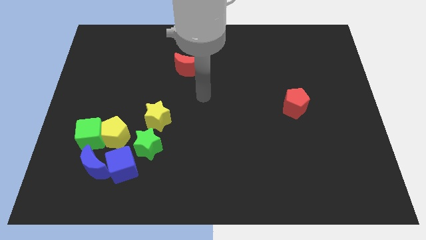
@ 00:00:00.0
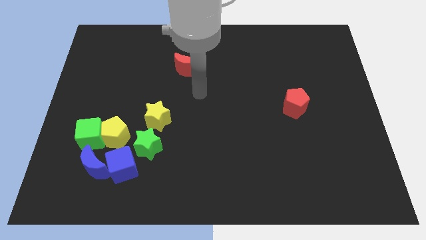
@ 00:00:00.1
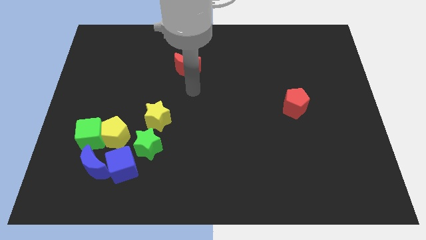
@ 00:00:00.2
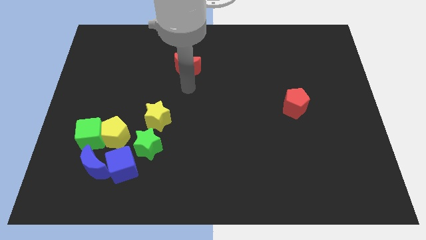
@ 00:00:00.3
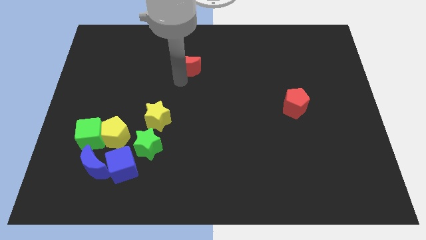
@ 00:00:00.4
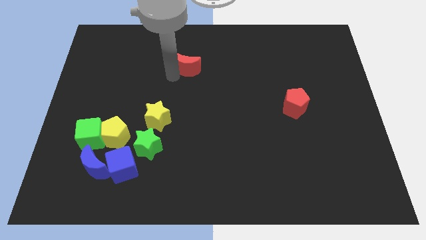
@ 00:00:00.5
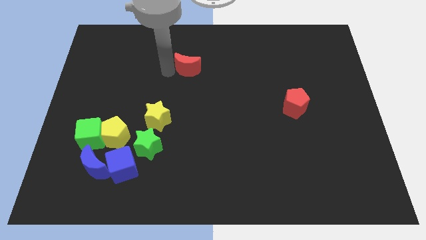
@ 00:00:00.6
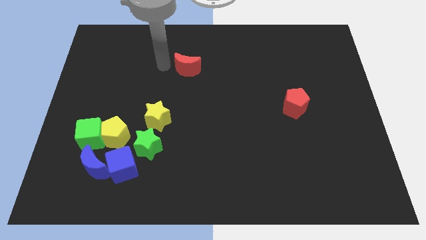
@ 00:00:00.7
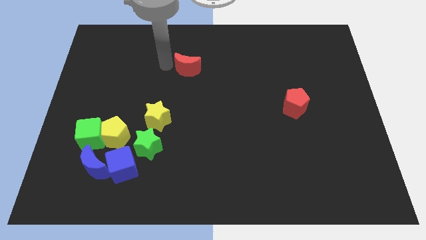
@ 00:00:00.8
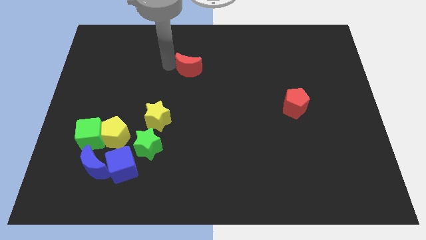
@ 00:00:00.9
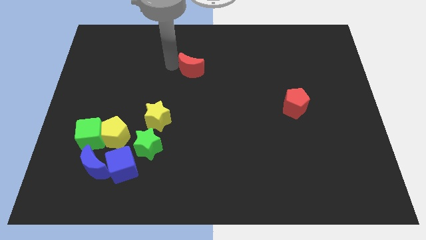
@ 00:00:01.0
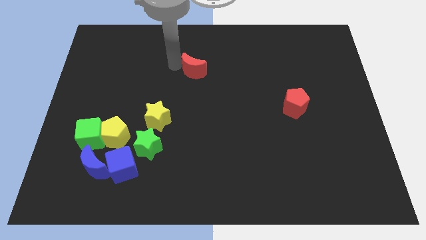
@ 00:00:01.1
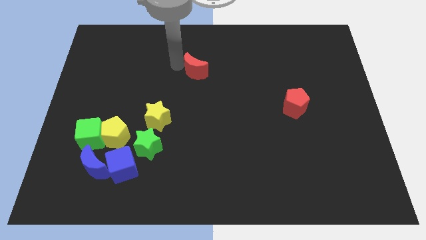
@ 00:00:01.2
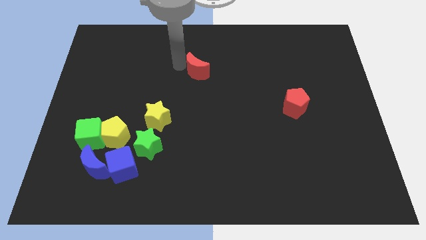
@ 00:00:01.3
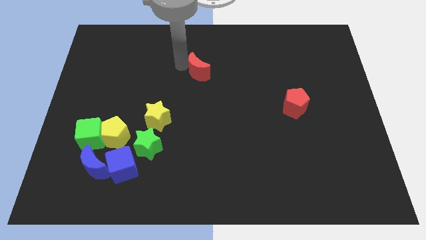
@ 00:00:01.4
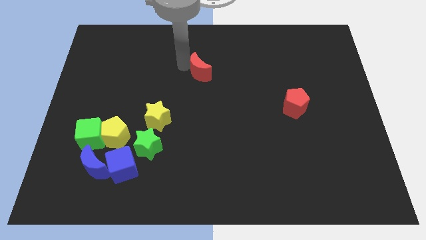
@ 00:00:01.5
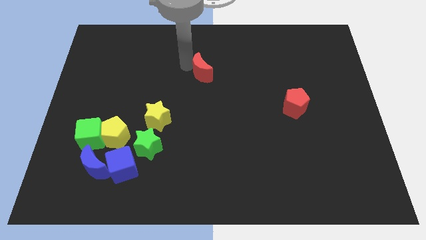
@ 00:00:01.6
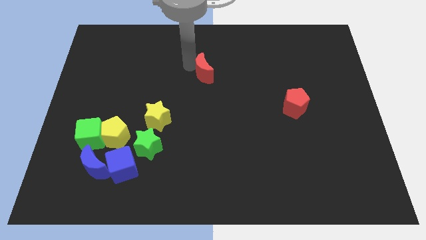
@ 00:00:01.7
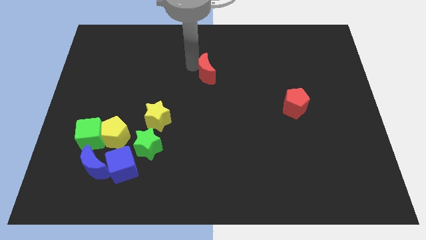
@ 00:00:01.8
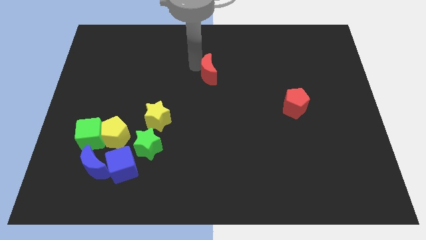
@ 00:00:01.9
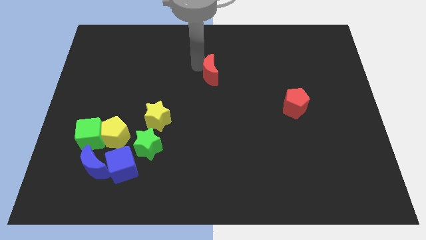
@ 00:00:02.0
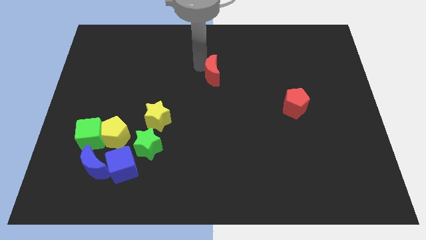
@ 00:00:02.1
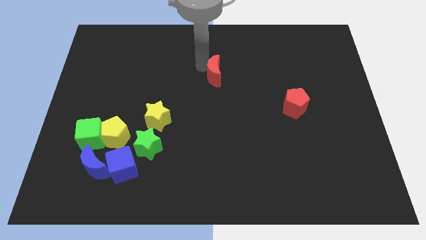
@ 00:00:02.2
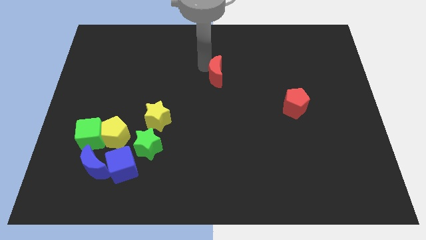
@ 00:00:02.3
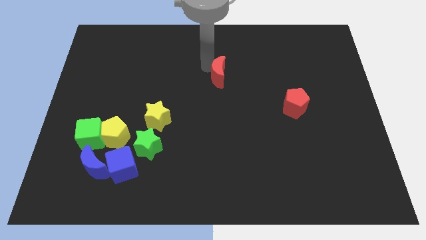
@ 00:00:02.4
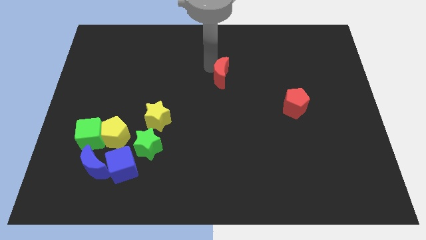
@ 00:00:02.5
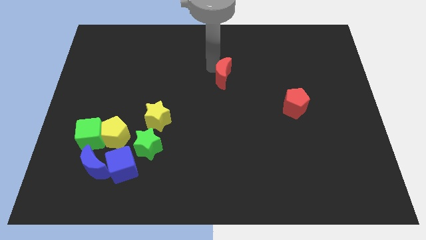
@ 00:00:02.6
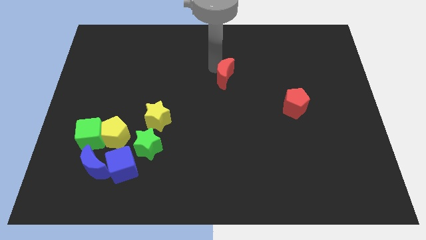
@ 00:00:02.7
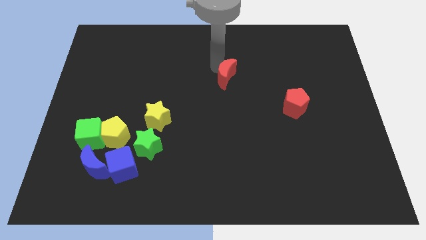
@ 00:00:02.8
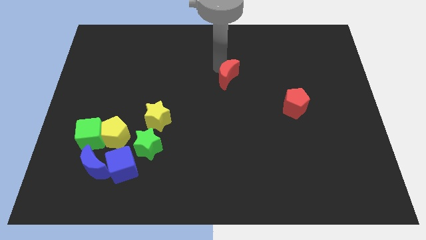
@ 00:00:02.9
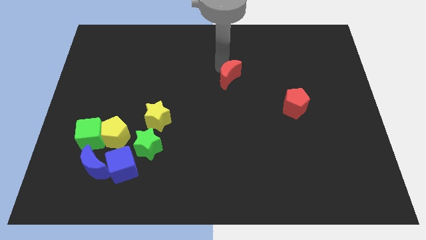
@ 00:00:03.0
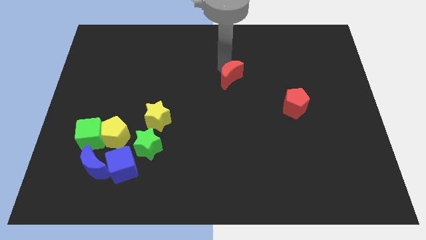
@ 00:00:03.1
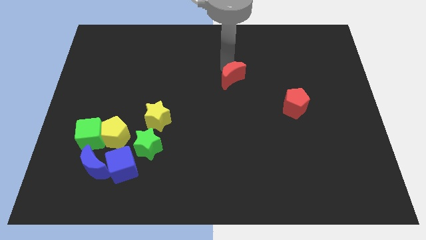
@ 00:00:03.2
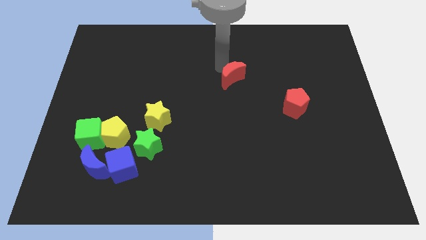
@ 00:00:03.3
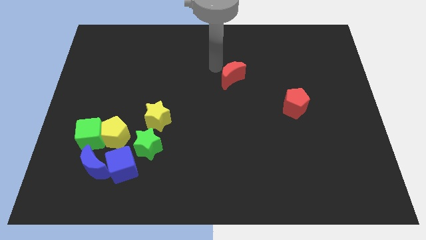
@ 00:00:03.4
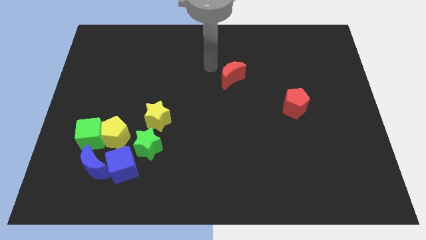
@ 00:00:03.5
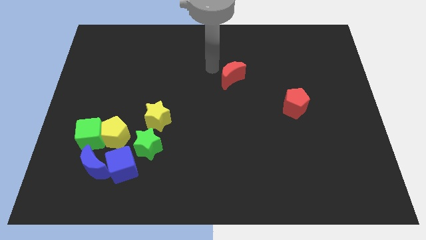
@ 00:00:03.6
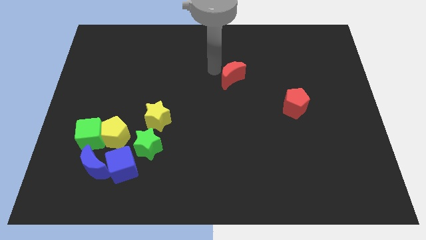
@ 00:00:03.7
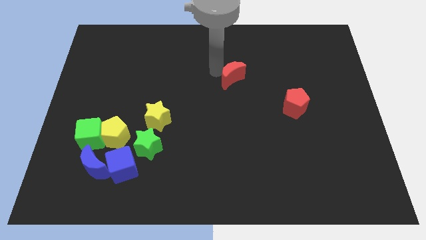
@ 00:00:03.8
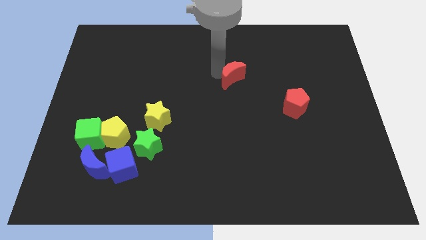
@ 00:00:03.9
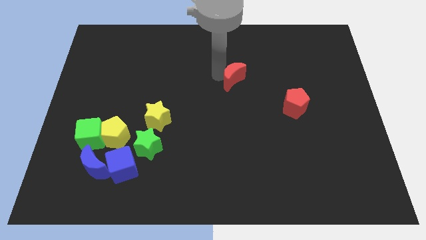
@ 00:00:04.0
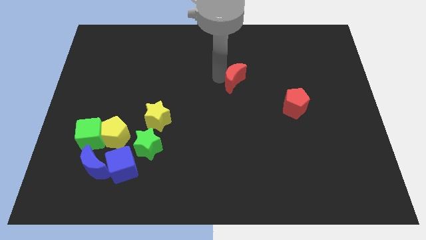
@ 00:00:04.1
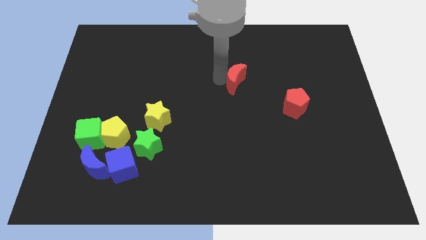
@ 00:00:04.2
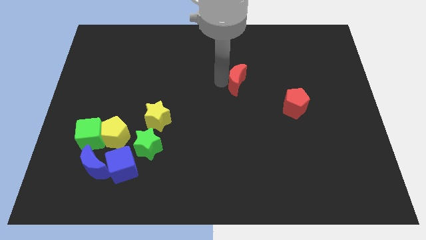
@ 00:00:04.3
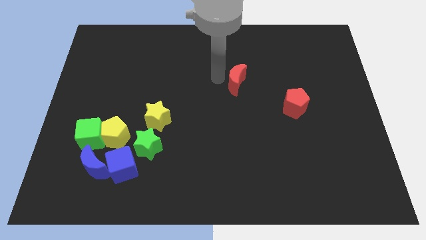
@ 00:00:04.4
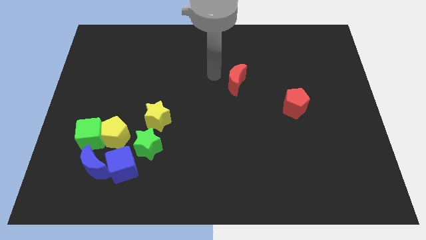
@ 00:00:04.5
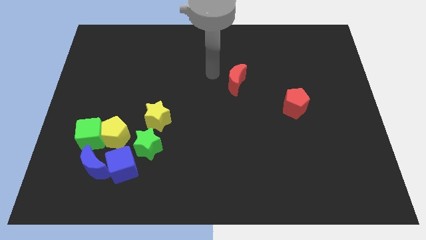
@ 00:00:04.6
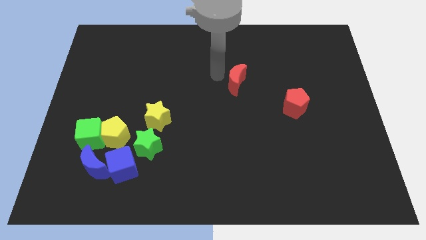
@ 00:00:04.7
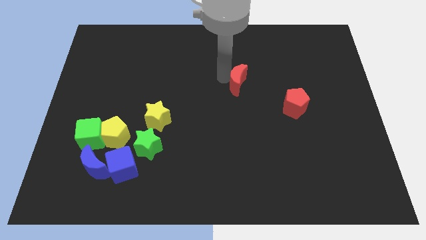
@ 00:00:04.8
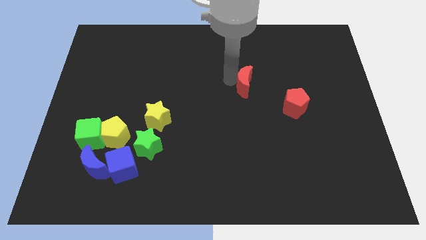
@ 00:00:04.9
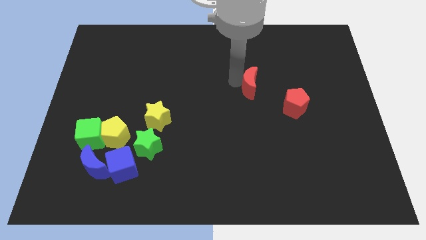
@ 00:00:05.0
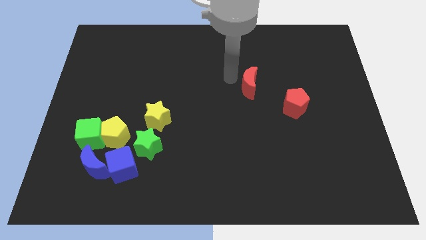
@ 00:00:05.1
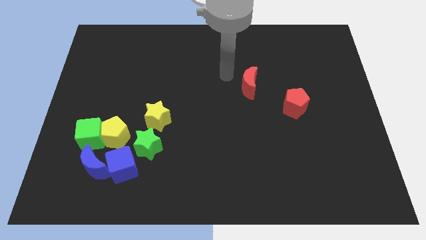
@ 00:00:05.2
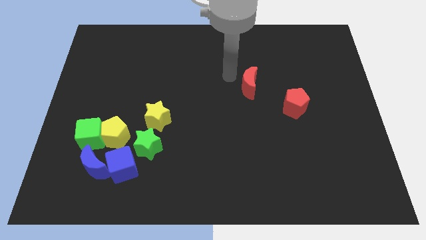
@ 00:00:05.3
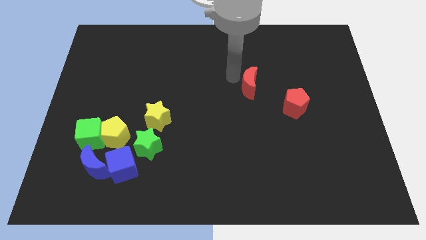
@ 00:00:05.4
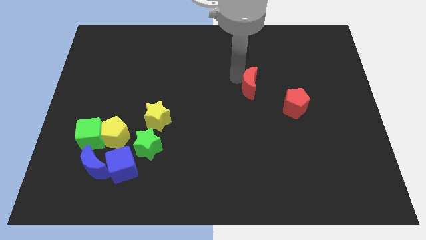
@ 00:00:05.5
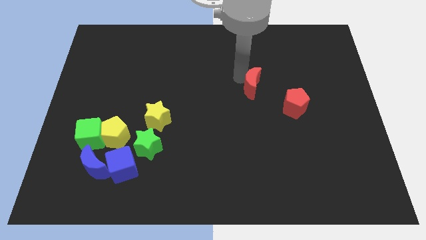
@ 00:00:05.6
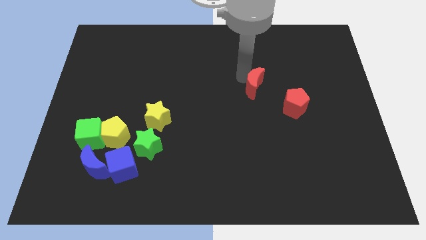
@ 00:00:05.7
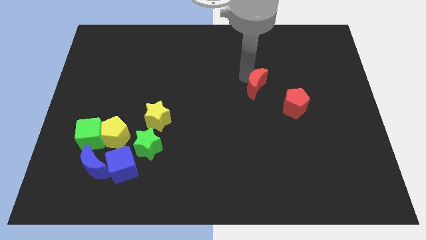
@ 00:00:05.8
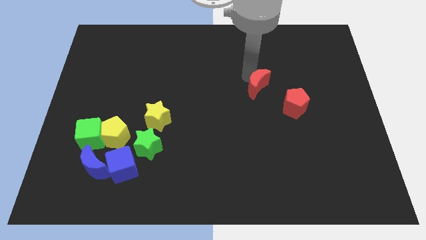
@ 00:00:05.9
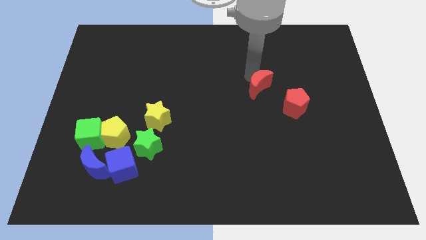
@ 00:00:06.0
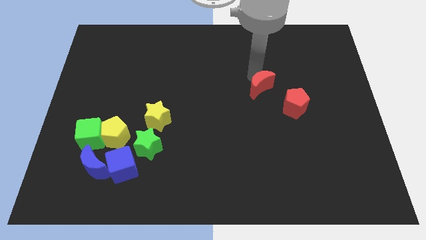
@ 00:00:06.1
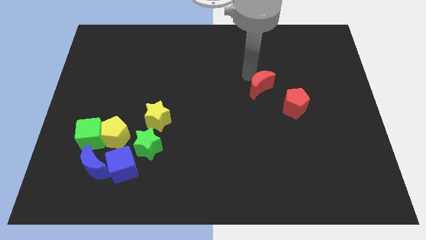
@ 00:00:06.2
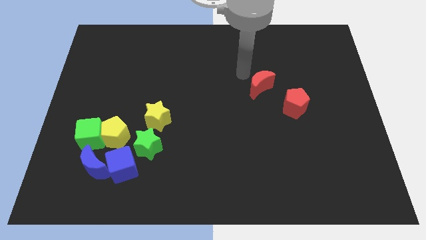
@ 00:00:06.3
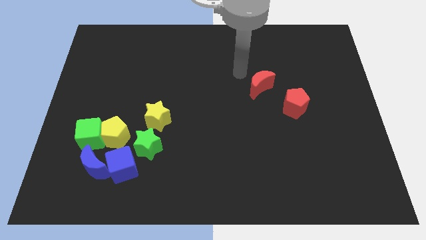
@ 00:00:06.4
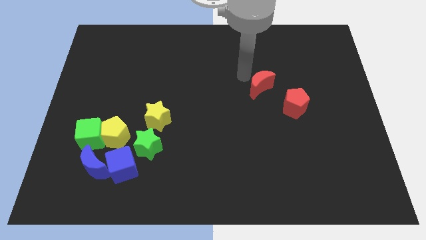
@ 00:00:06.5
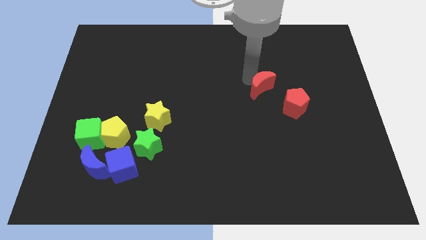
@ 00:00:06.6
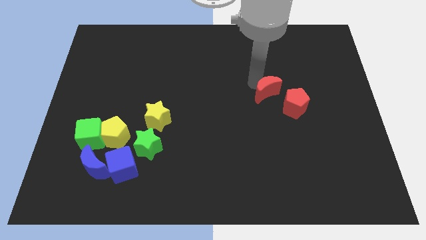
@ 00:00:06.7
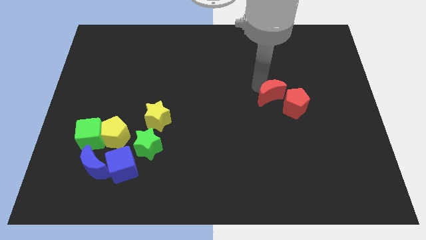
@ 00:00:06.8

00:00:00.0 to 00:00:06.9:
move the red moon close to the red pentagon
